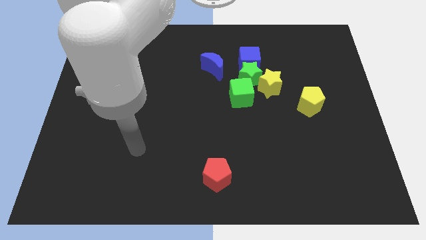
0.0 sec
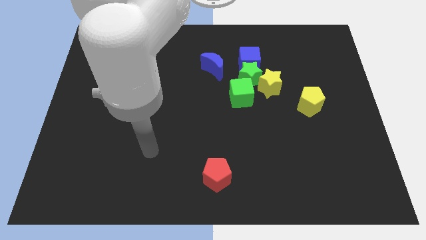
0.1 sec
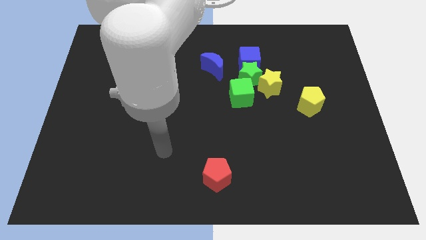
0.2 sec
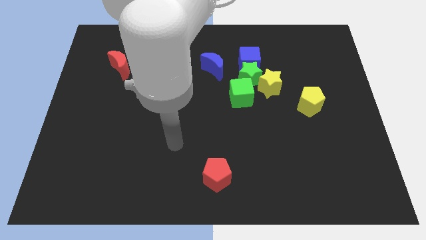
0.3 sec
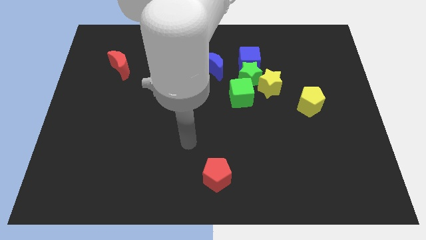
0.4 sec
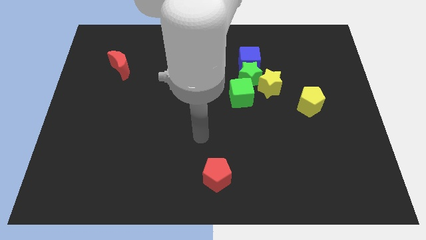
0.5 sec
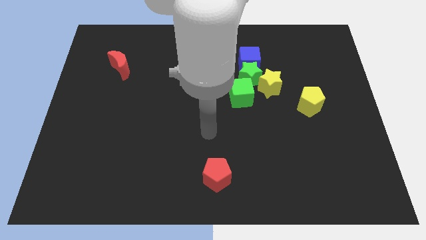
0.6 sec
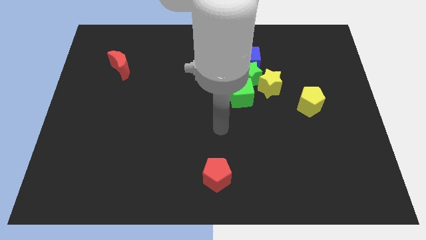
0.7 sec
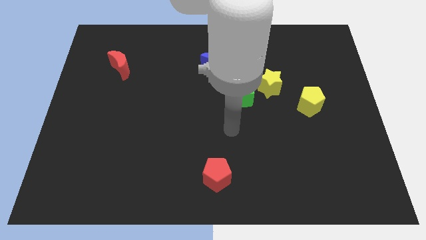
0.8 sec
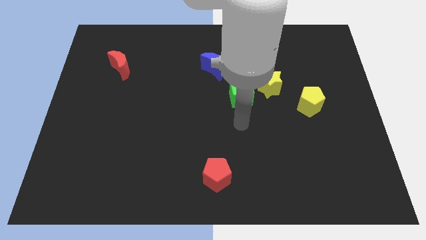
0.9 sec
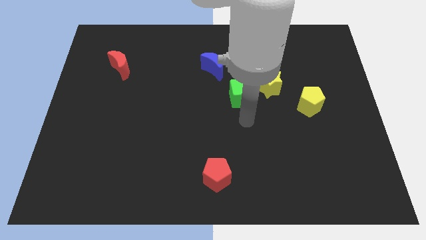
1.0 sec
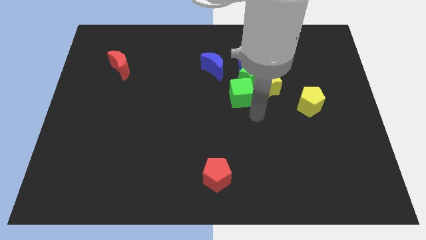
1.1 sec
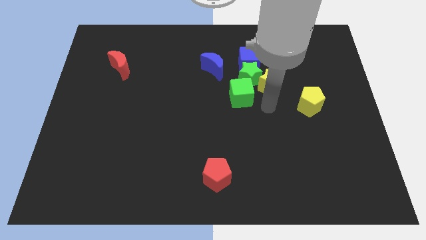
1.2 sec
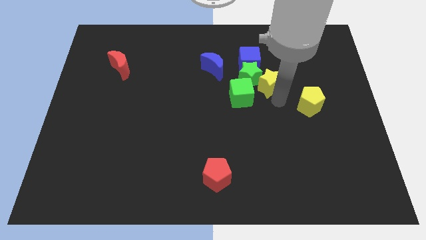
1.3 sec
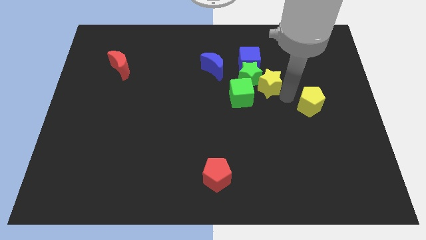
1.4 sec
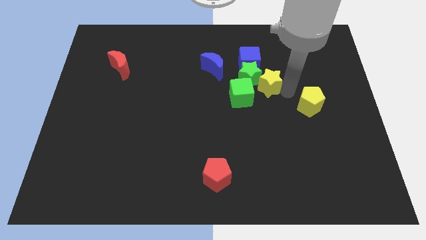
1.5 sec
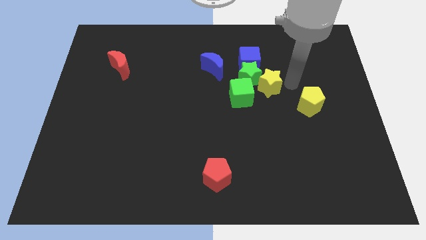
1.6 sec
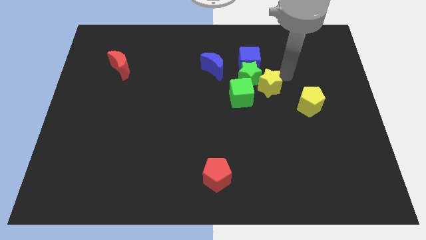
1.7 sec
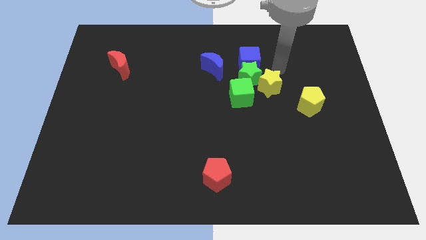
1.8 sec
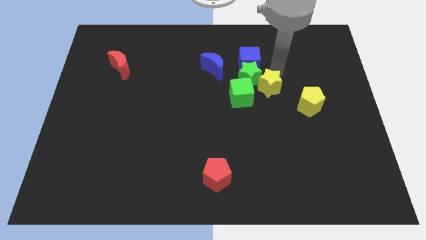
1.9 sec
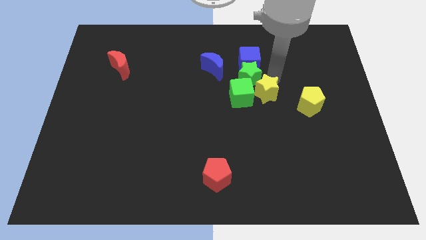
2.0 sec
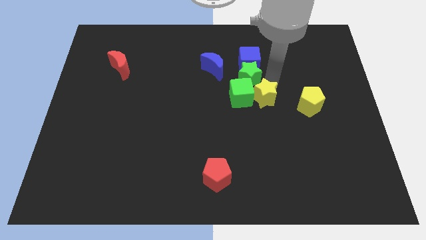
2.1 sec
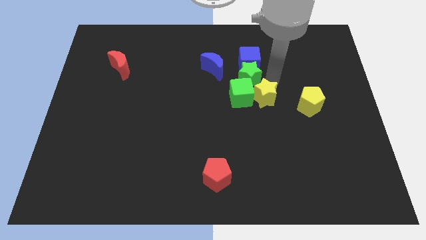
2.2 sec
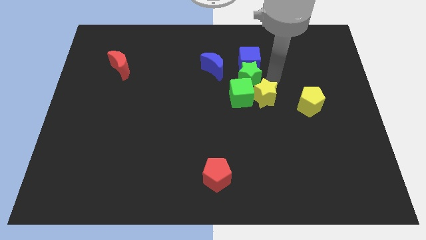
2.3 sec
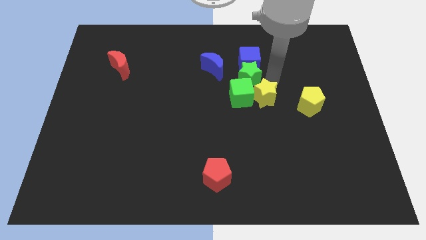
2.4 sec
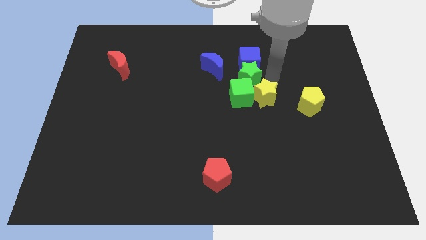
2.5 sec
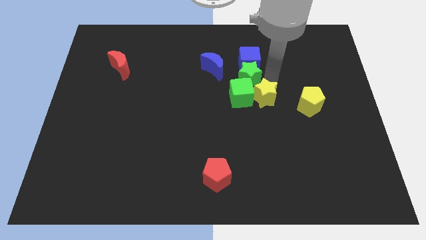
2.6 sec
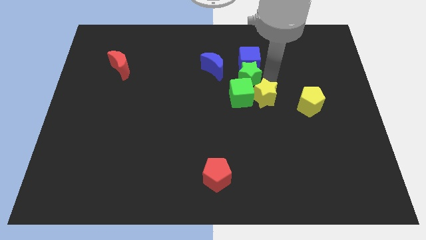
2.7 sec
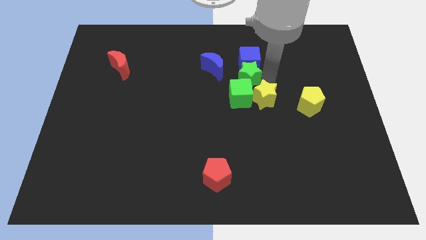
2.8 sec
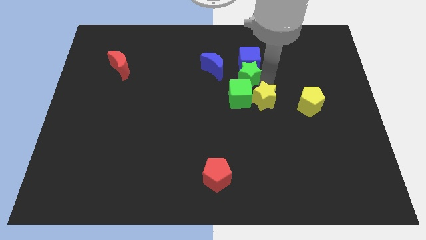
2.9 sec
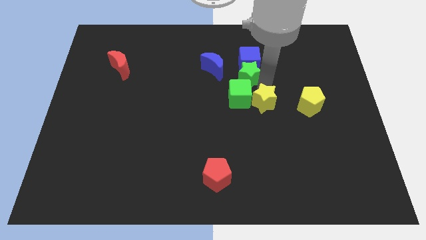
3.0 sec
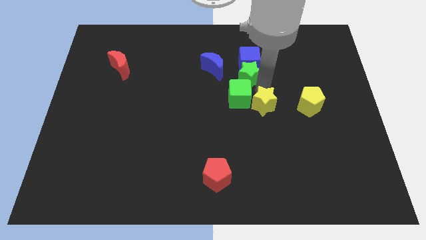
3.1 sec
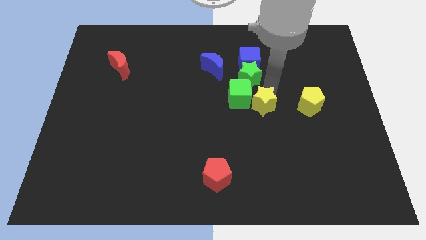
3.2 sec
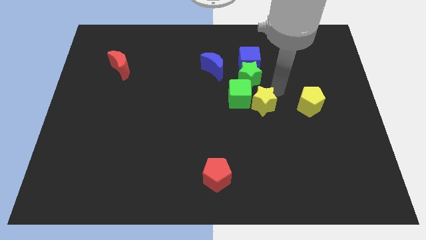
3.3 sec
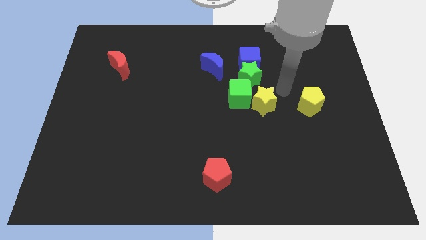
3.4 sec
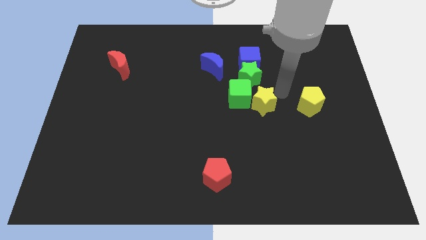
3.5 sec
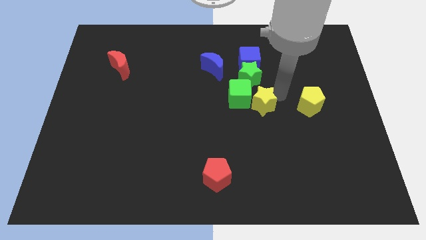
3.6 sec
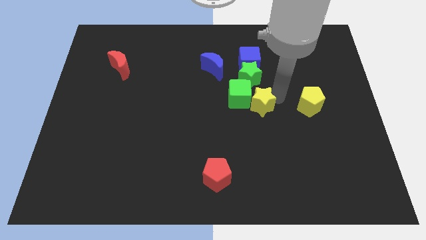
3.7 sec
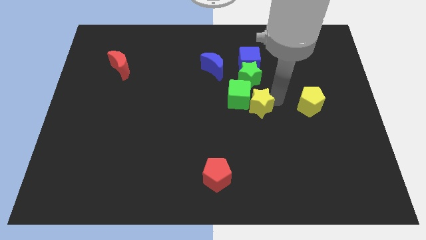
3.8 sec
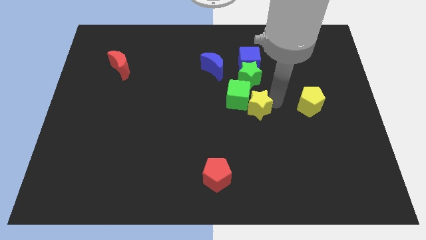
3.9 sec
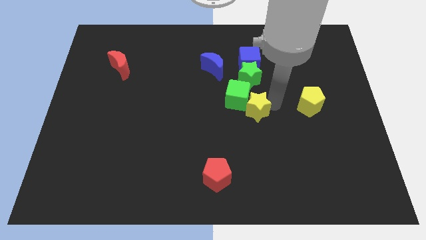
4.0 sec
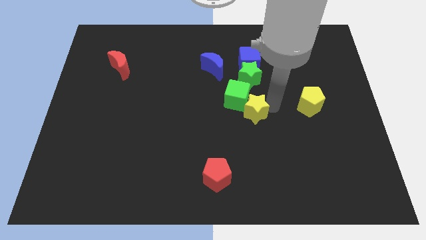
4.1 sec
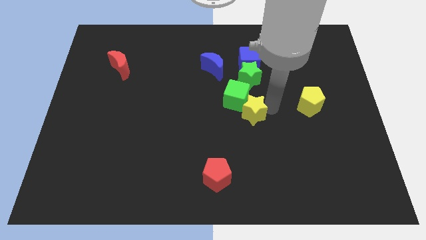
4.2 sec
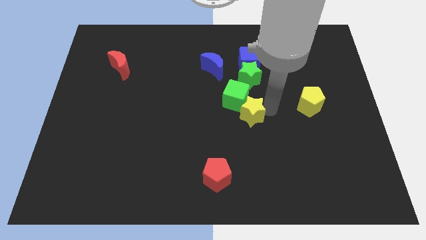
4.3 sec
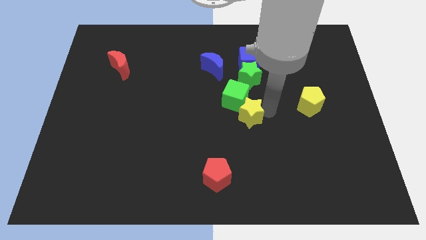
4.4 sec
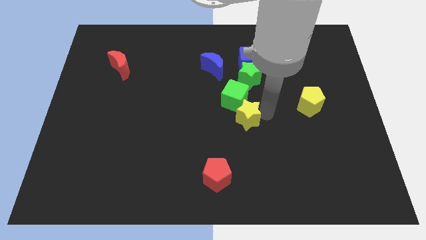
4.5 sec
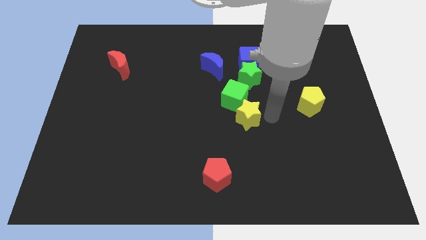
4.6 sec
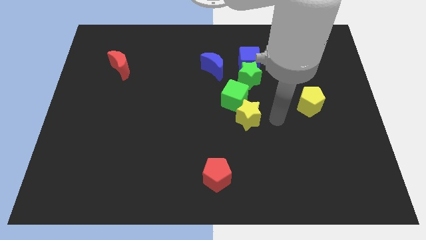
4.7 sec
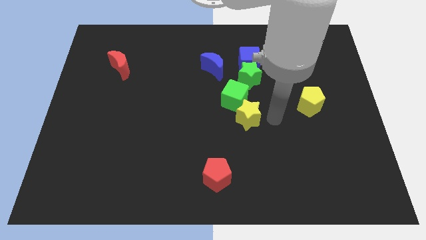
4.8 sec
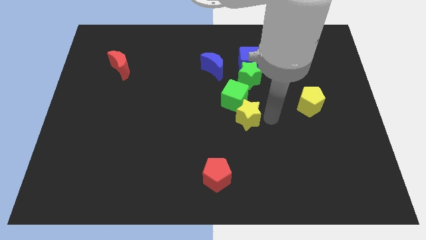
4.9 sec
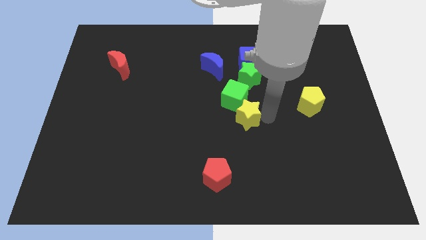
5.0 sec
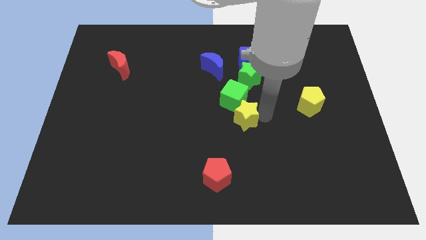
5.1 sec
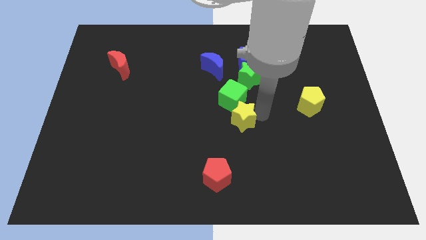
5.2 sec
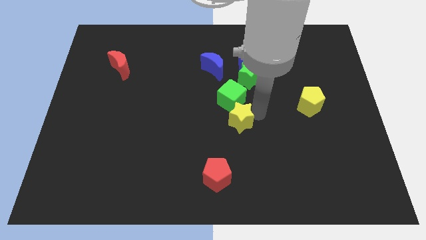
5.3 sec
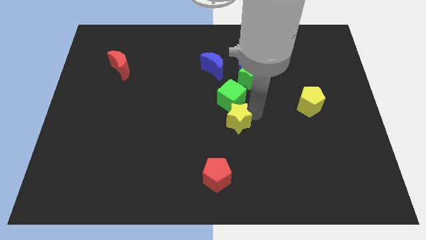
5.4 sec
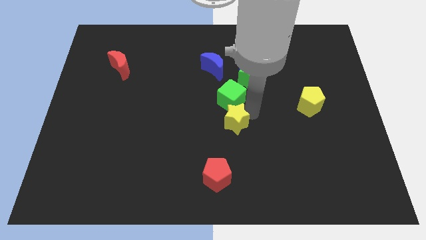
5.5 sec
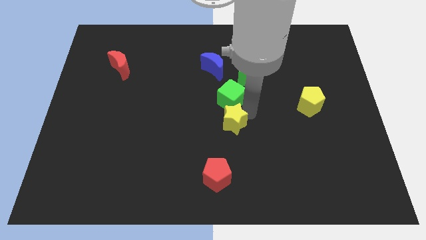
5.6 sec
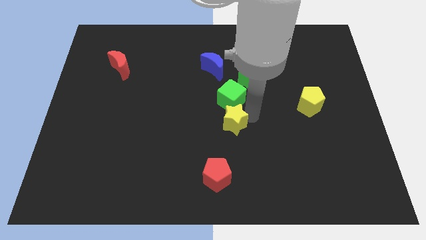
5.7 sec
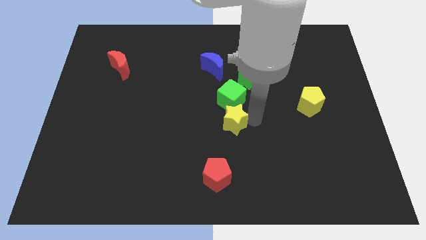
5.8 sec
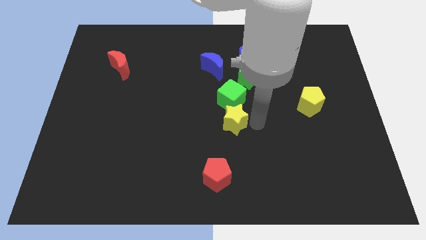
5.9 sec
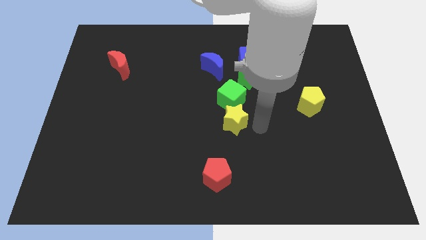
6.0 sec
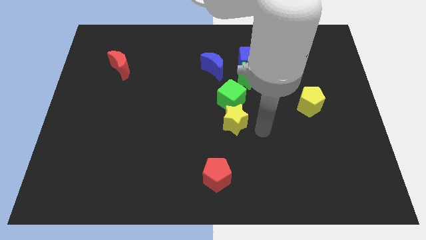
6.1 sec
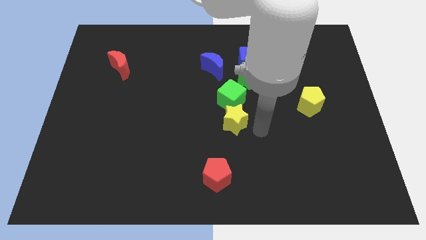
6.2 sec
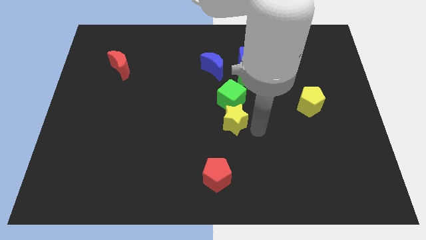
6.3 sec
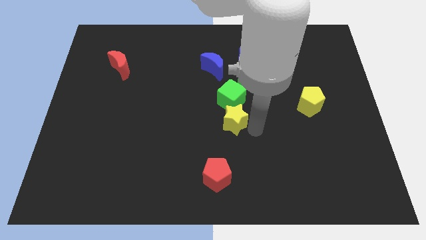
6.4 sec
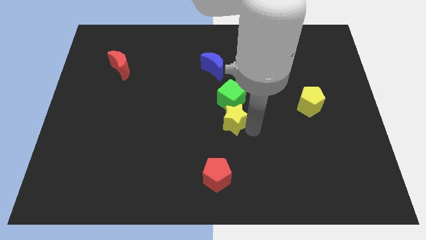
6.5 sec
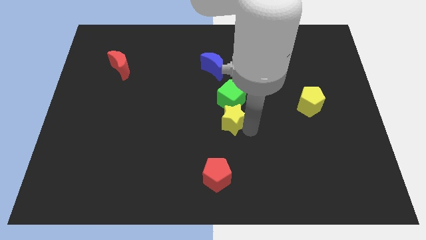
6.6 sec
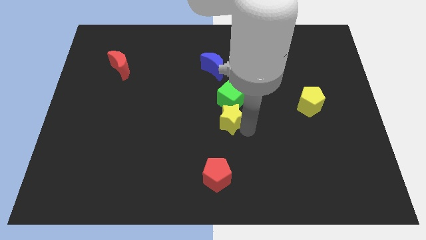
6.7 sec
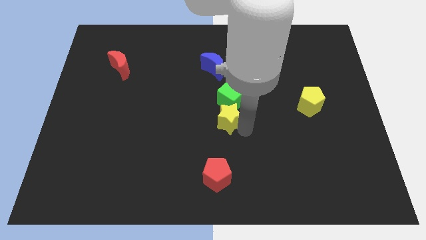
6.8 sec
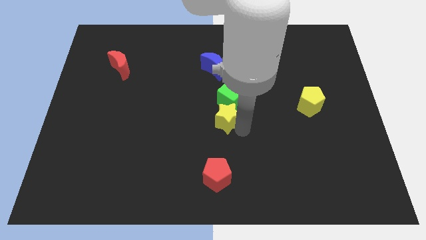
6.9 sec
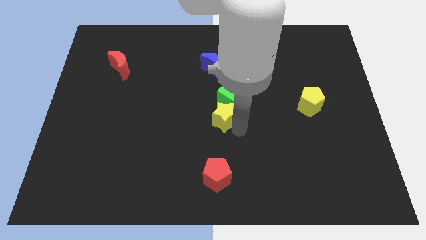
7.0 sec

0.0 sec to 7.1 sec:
slide the yellow star slightly to the left

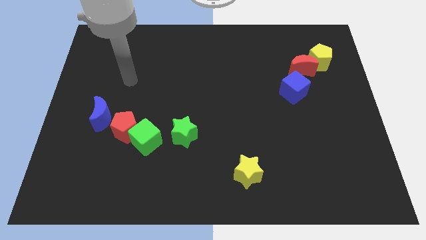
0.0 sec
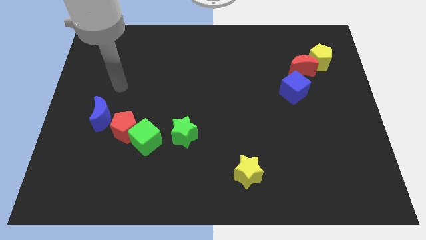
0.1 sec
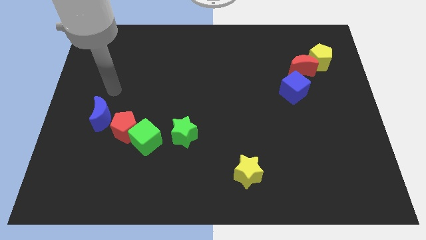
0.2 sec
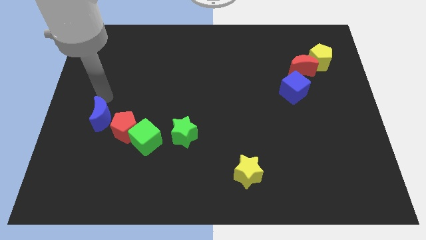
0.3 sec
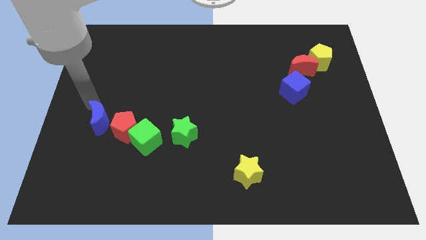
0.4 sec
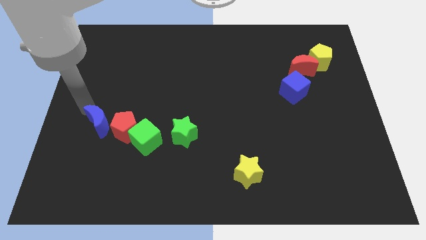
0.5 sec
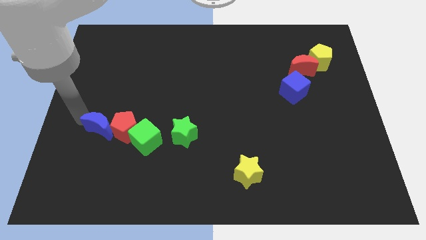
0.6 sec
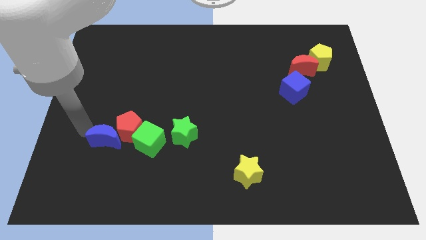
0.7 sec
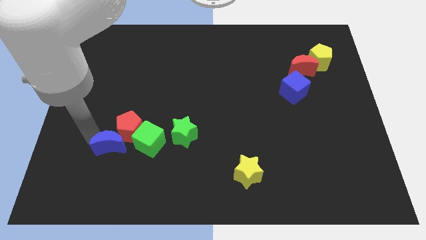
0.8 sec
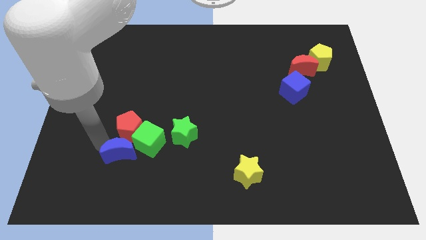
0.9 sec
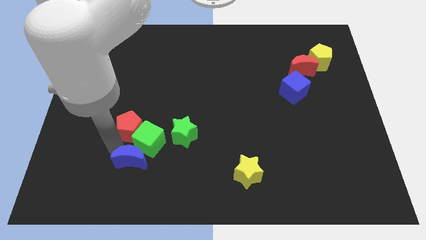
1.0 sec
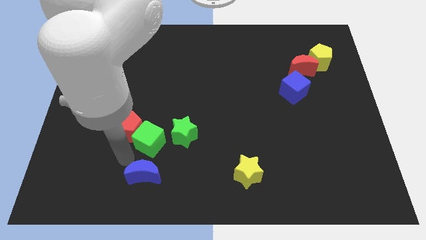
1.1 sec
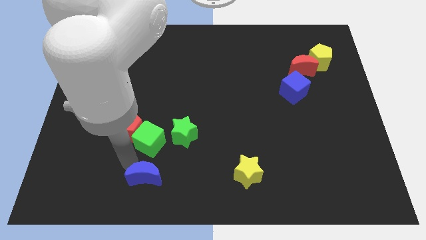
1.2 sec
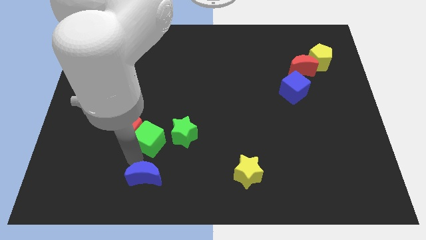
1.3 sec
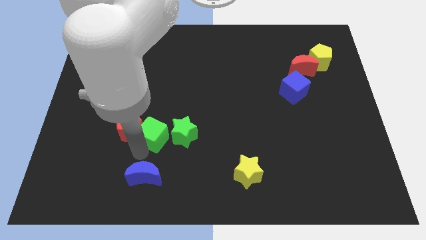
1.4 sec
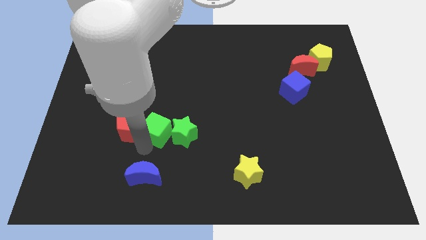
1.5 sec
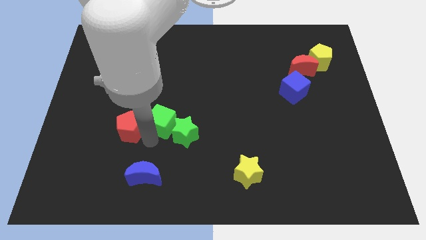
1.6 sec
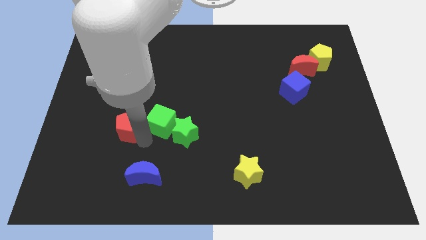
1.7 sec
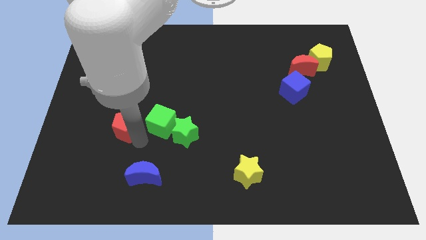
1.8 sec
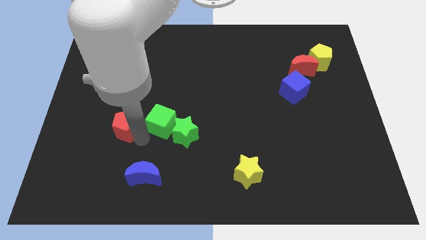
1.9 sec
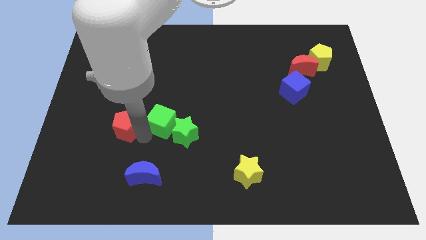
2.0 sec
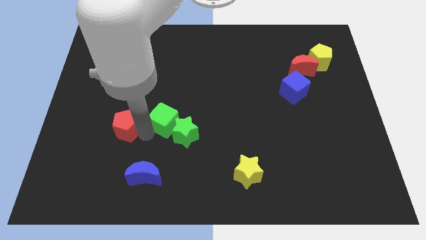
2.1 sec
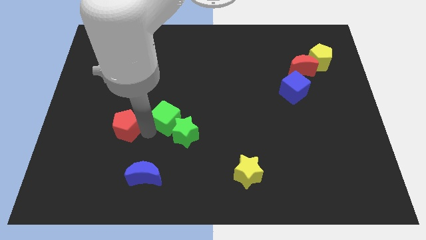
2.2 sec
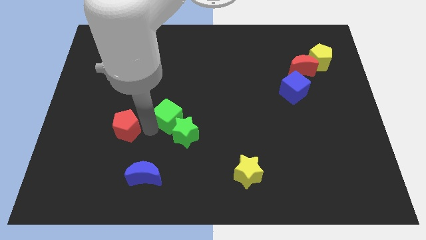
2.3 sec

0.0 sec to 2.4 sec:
push the green cube a little bit up and then right
